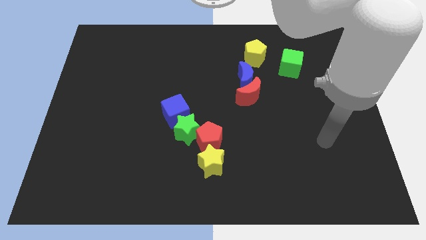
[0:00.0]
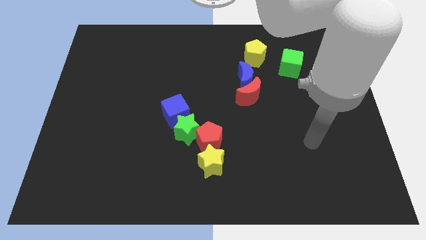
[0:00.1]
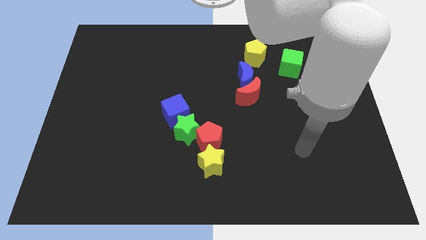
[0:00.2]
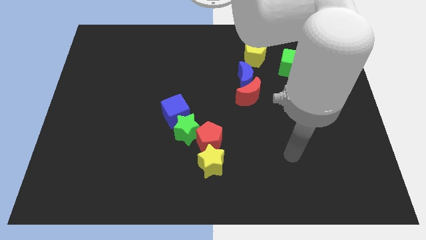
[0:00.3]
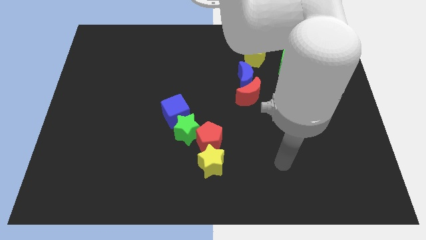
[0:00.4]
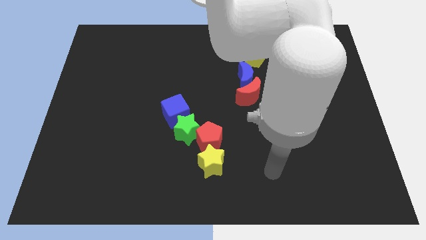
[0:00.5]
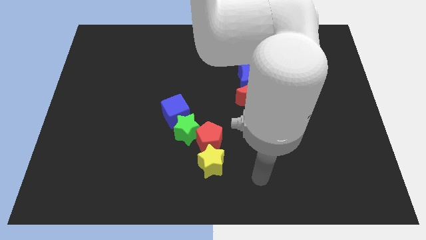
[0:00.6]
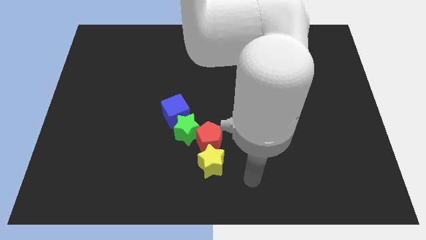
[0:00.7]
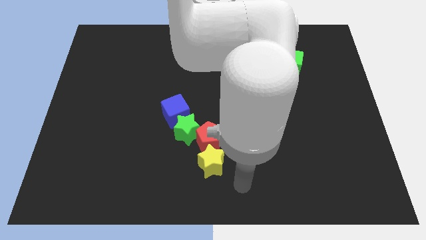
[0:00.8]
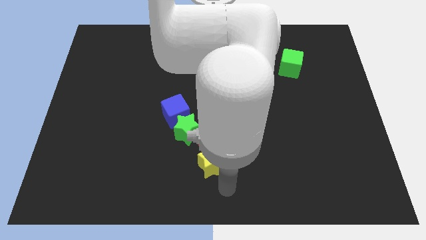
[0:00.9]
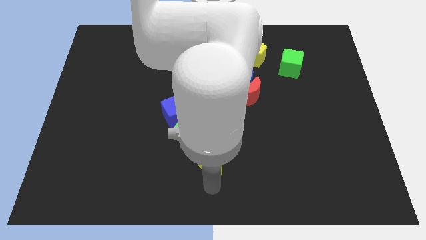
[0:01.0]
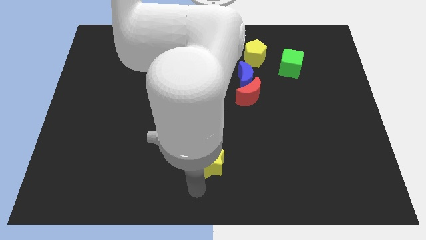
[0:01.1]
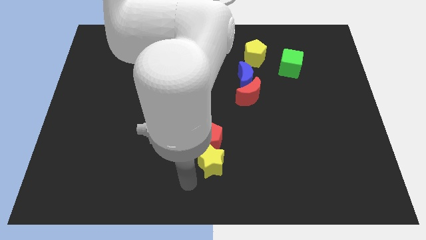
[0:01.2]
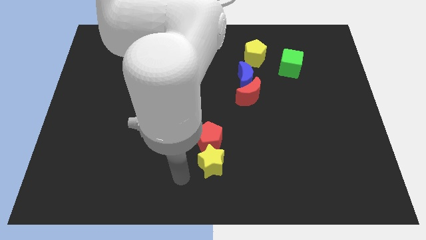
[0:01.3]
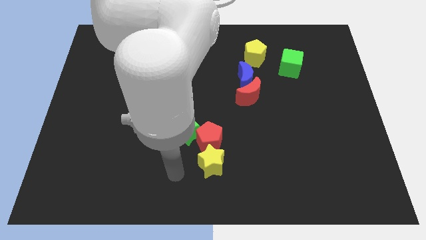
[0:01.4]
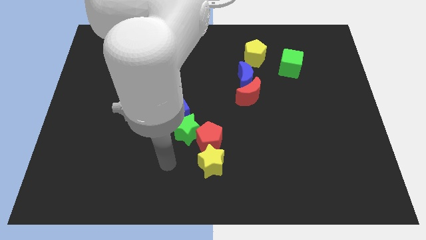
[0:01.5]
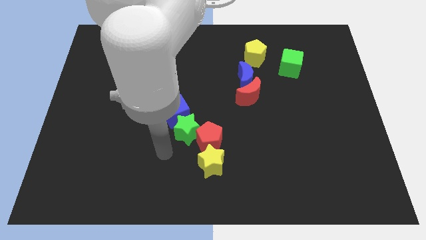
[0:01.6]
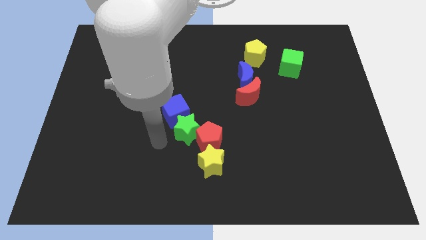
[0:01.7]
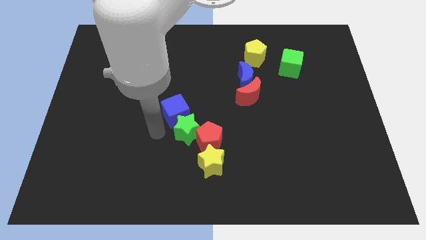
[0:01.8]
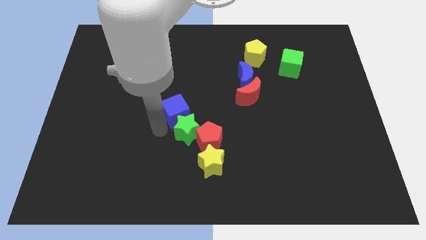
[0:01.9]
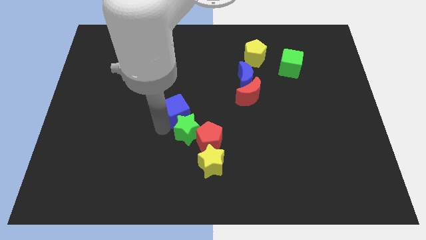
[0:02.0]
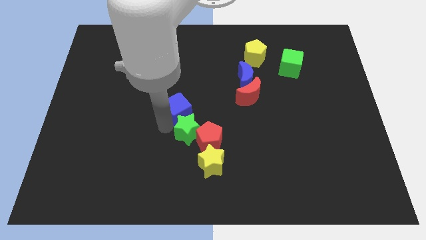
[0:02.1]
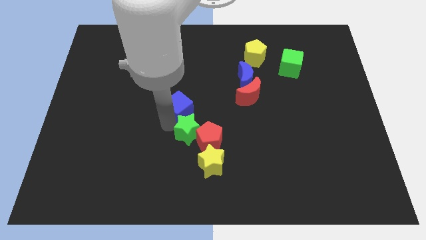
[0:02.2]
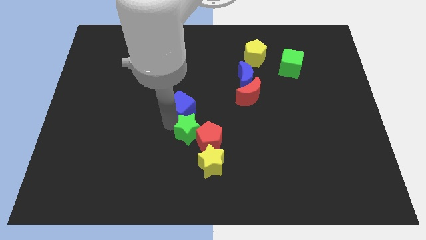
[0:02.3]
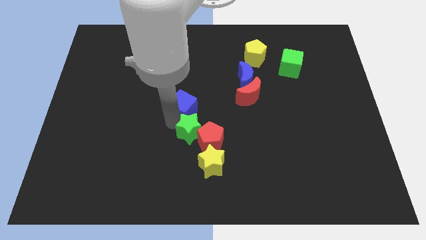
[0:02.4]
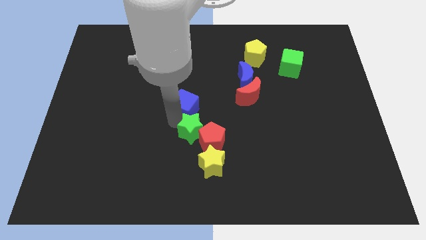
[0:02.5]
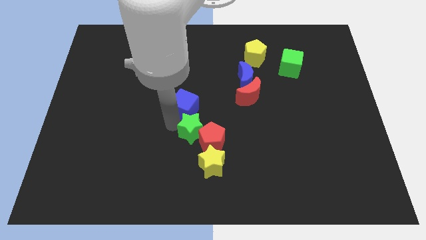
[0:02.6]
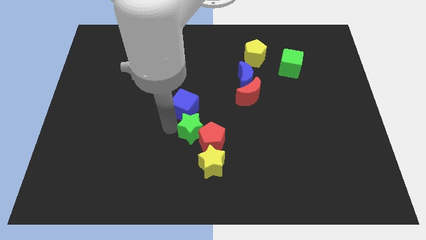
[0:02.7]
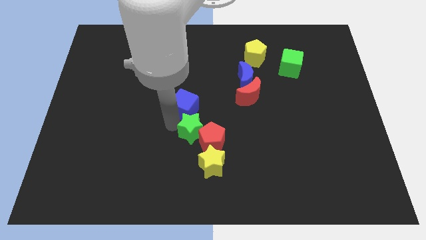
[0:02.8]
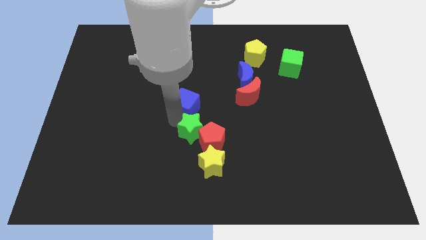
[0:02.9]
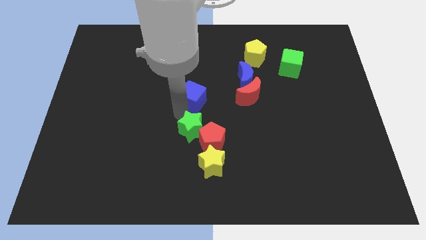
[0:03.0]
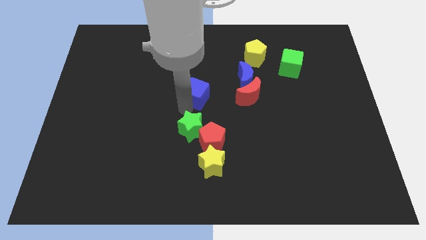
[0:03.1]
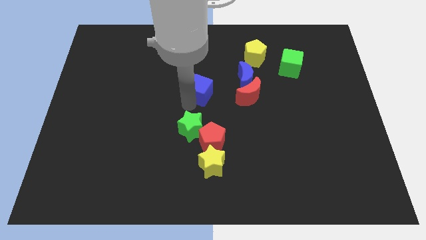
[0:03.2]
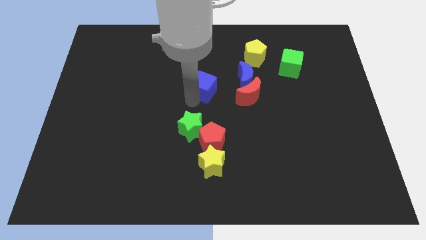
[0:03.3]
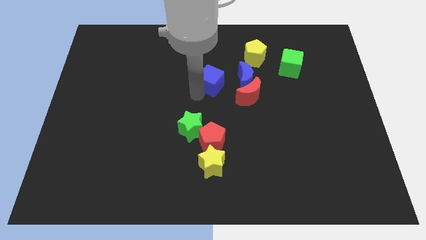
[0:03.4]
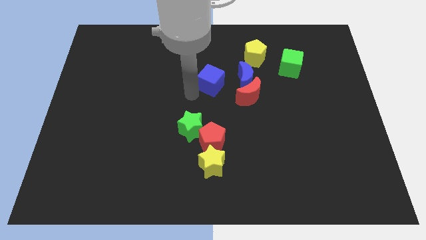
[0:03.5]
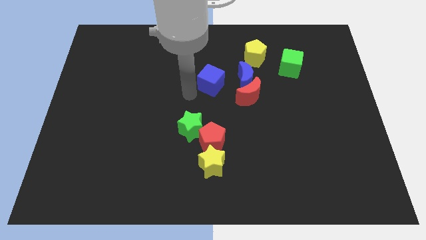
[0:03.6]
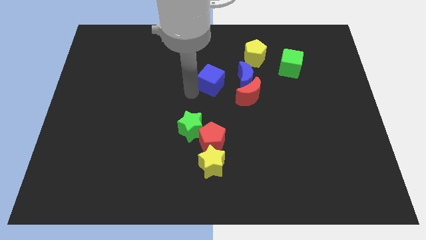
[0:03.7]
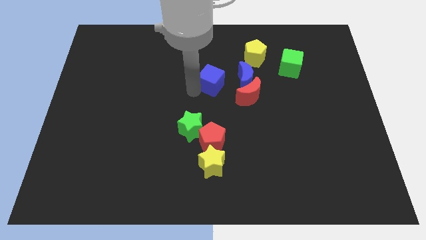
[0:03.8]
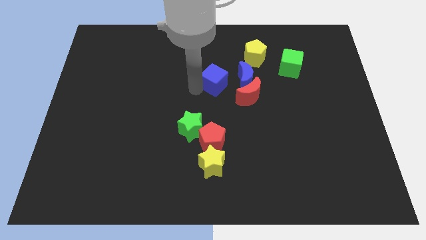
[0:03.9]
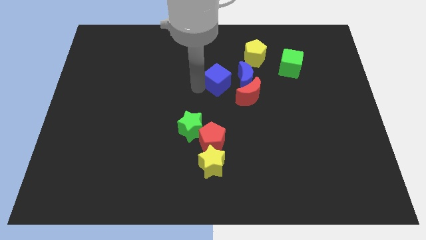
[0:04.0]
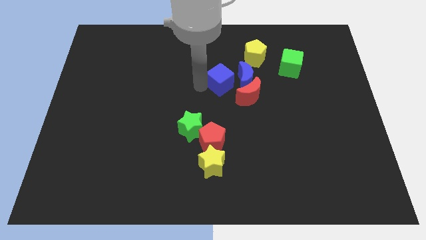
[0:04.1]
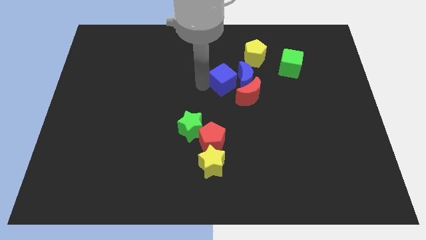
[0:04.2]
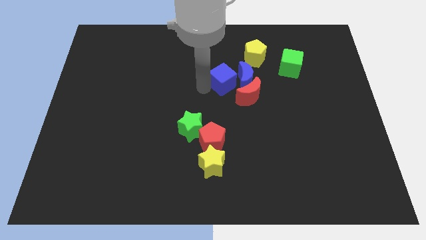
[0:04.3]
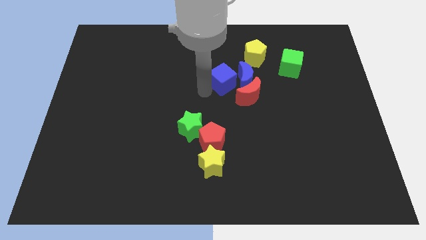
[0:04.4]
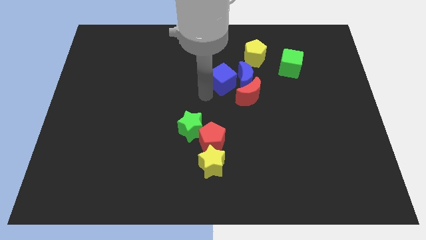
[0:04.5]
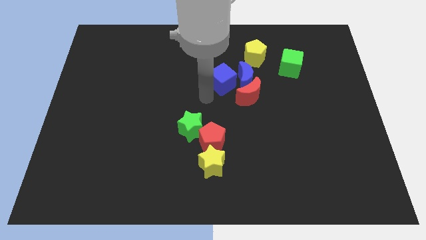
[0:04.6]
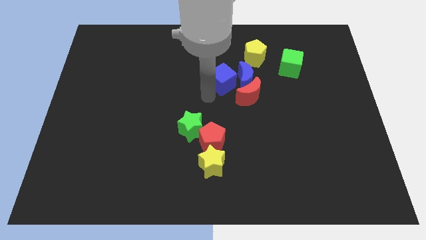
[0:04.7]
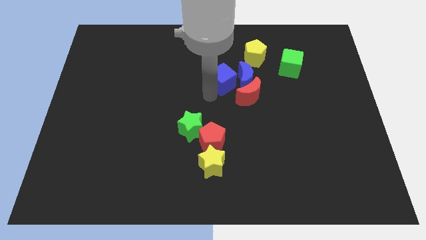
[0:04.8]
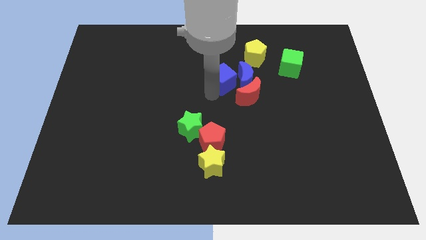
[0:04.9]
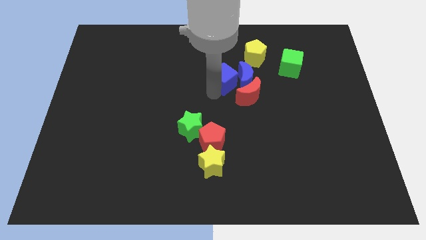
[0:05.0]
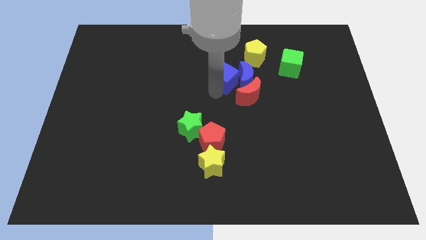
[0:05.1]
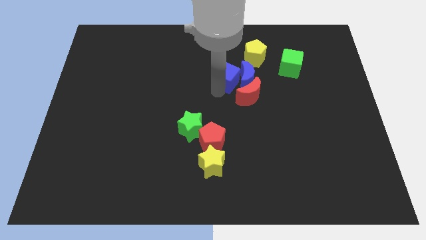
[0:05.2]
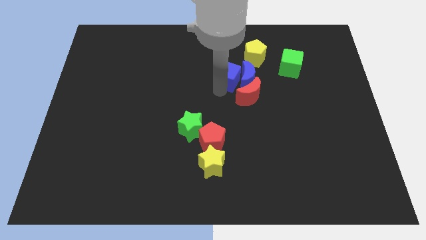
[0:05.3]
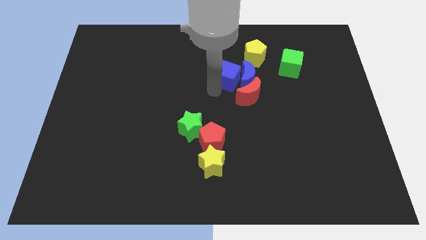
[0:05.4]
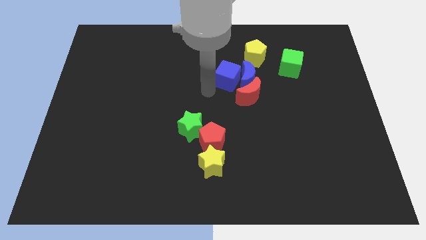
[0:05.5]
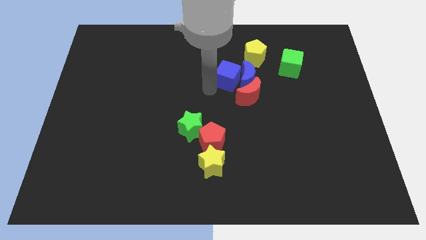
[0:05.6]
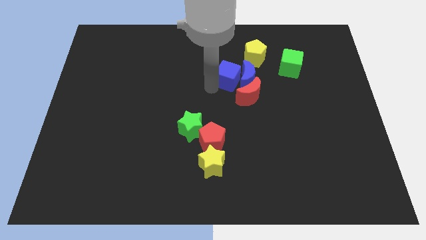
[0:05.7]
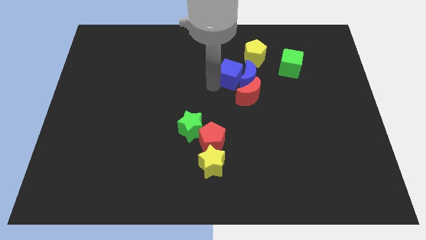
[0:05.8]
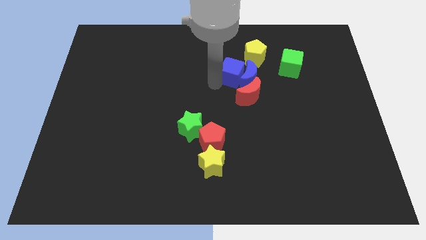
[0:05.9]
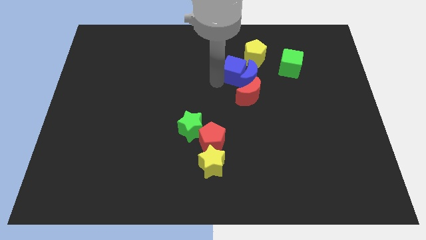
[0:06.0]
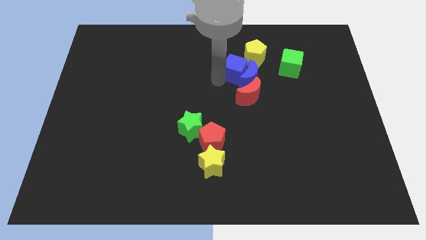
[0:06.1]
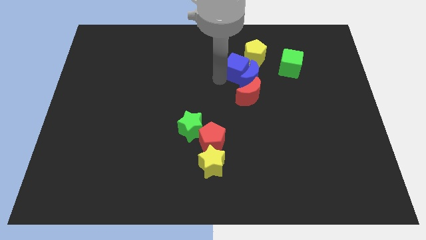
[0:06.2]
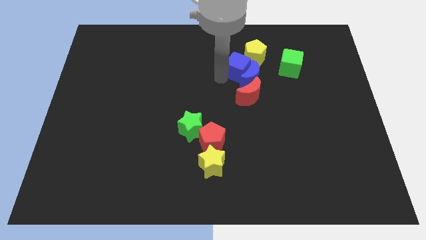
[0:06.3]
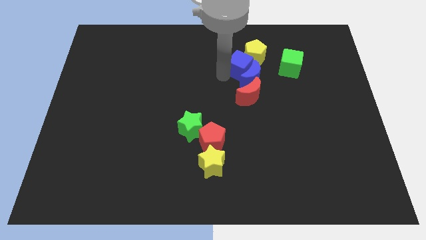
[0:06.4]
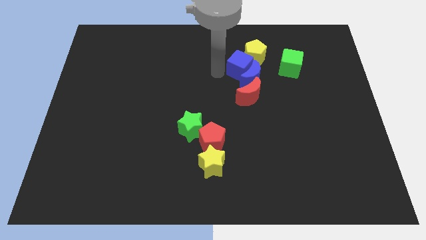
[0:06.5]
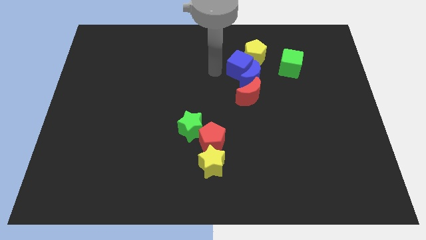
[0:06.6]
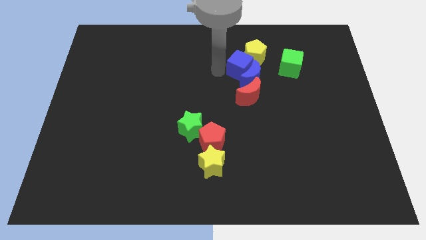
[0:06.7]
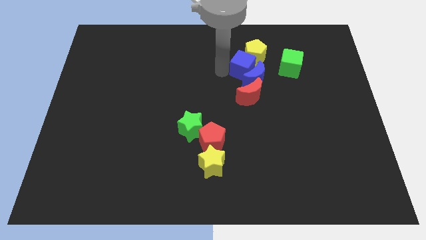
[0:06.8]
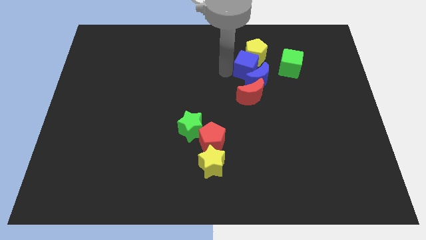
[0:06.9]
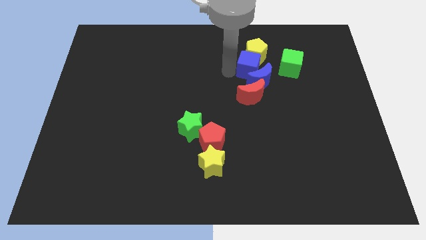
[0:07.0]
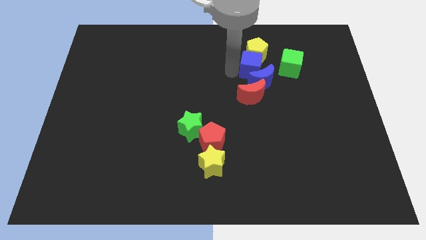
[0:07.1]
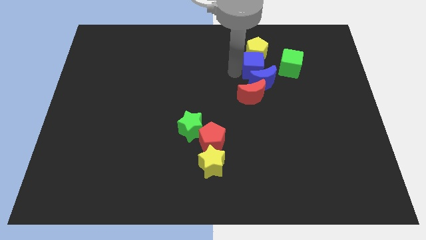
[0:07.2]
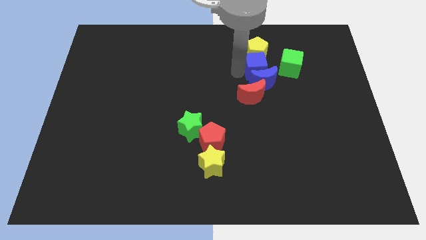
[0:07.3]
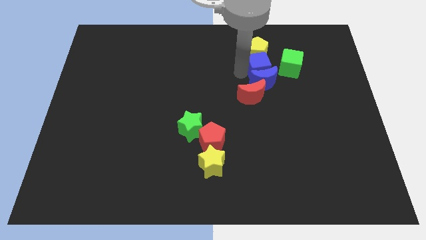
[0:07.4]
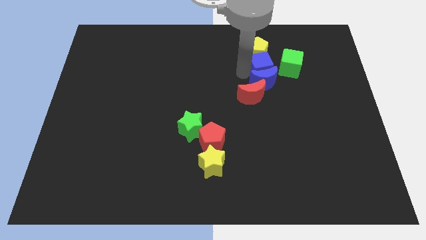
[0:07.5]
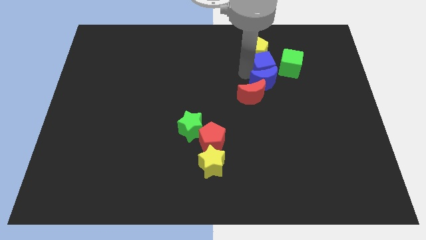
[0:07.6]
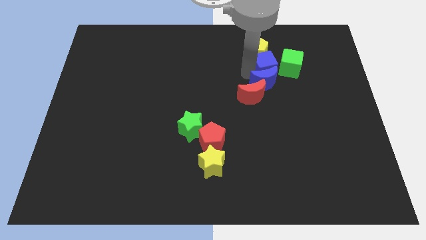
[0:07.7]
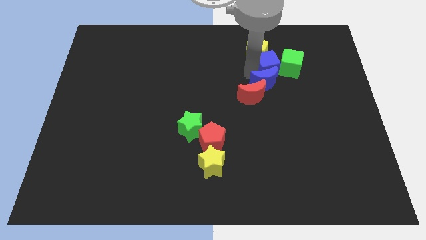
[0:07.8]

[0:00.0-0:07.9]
put the blue cube next to the green cube
